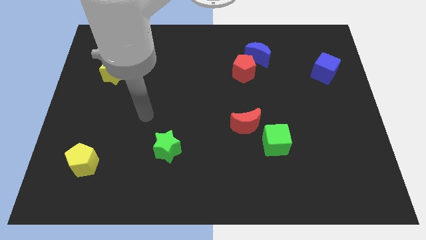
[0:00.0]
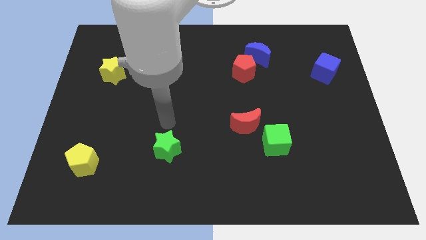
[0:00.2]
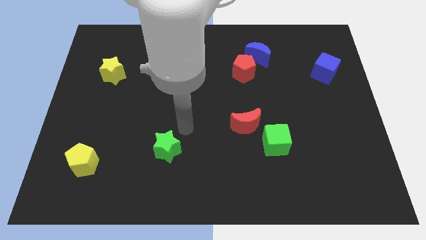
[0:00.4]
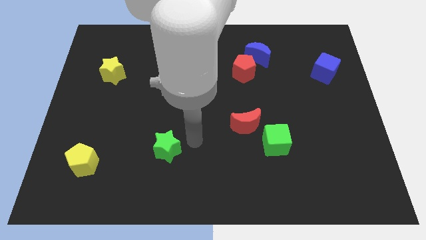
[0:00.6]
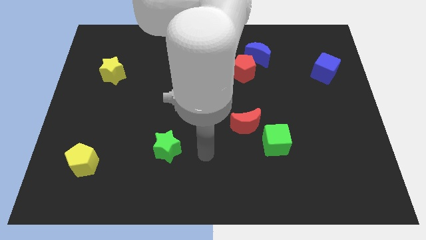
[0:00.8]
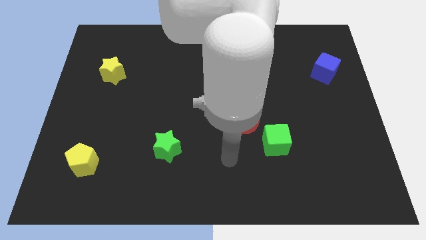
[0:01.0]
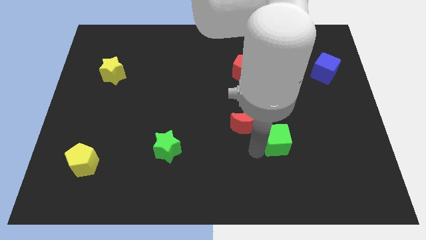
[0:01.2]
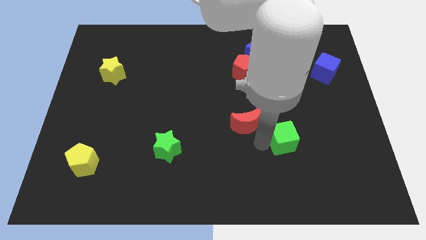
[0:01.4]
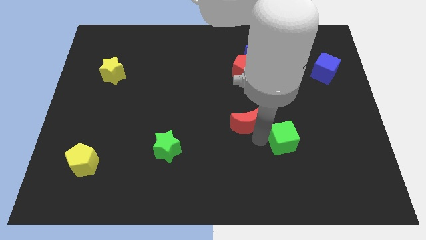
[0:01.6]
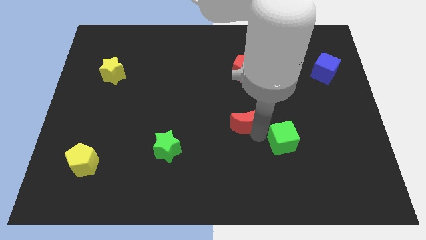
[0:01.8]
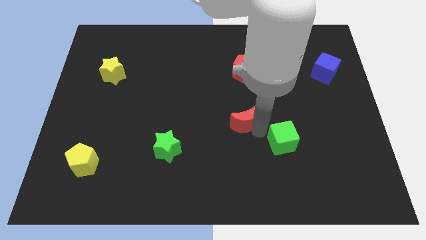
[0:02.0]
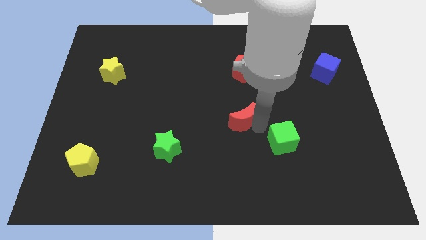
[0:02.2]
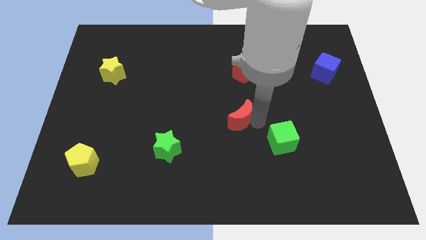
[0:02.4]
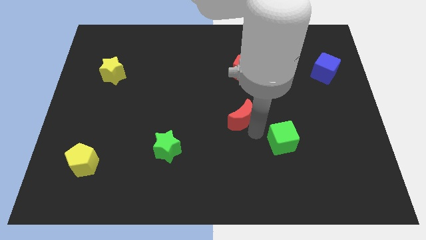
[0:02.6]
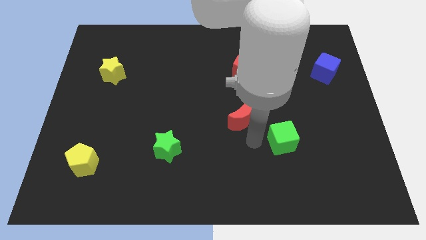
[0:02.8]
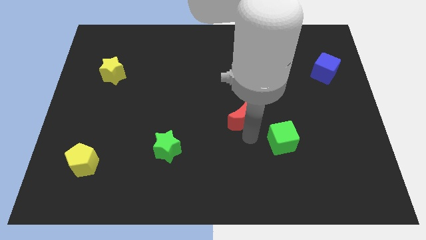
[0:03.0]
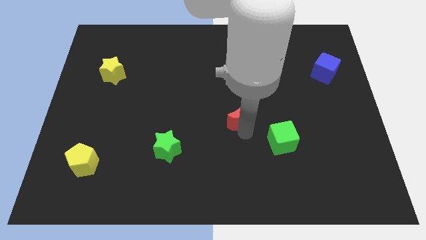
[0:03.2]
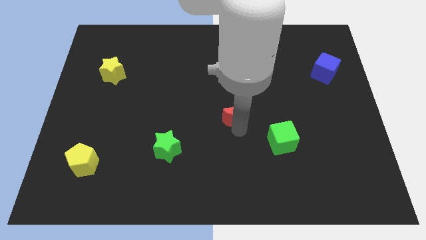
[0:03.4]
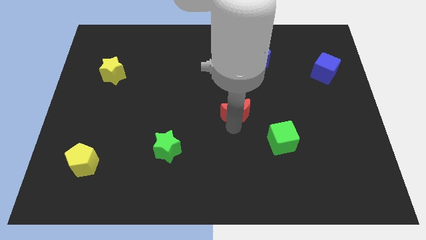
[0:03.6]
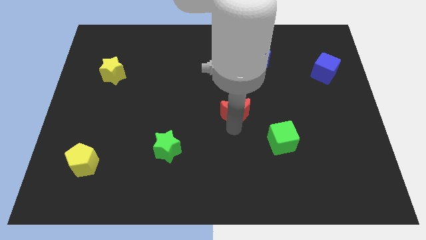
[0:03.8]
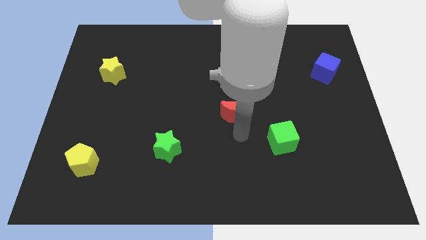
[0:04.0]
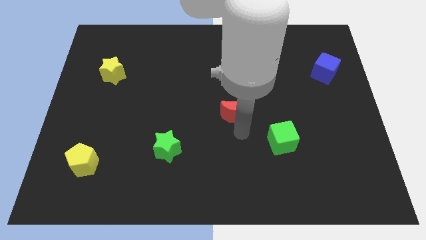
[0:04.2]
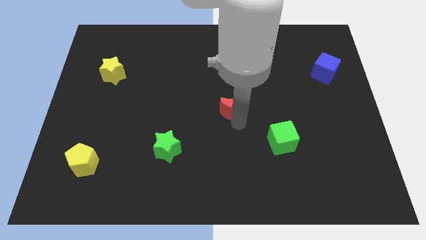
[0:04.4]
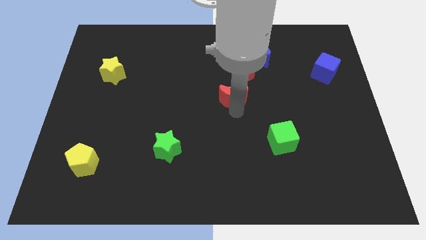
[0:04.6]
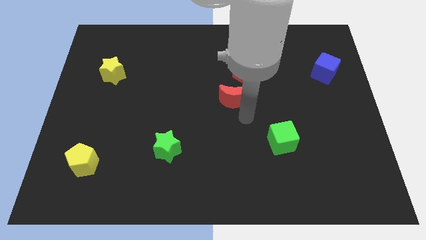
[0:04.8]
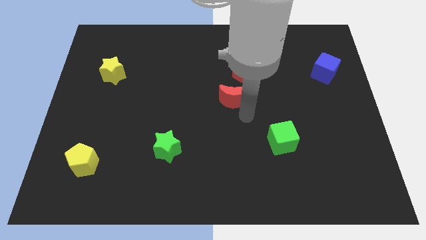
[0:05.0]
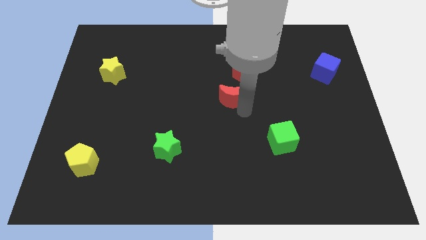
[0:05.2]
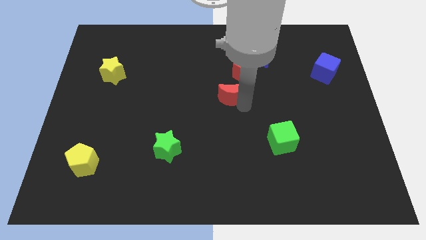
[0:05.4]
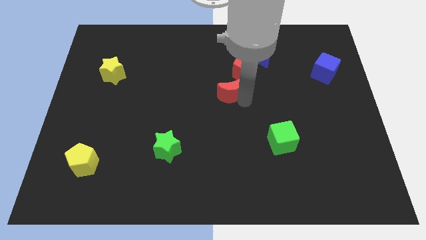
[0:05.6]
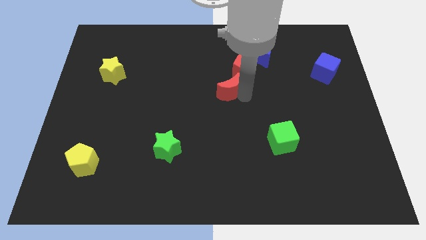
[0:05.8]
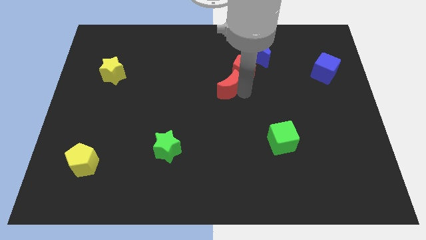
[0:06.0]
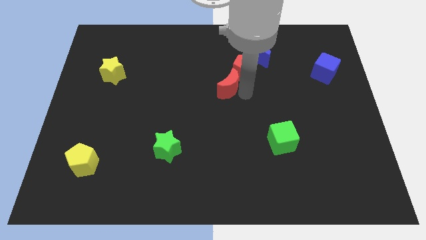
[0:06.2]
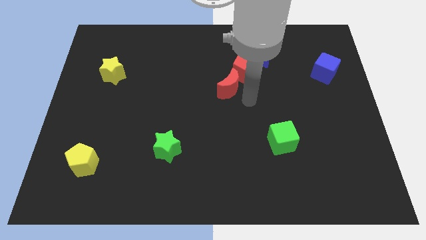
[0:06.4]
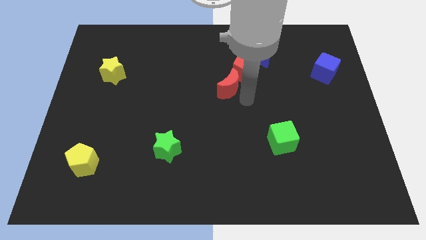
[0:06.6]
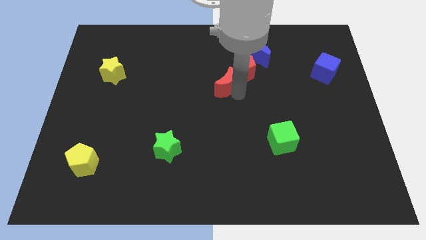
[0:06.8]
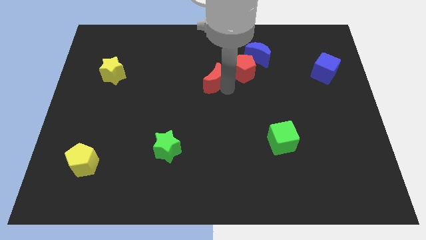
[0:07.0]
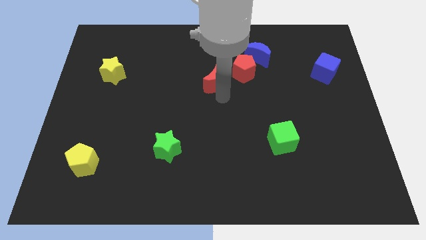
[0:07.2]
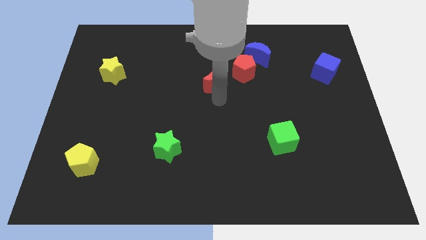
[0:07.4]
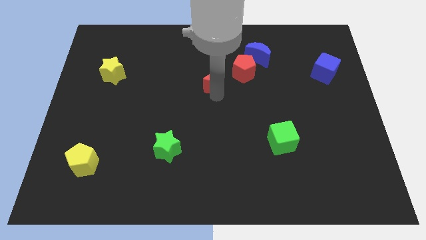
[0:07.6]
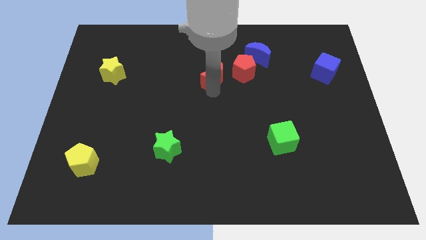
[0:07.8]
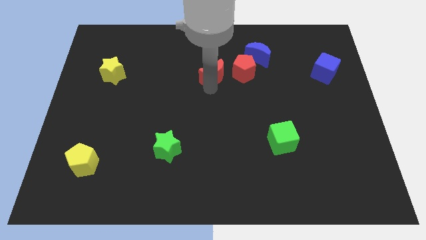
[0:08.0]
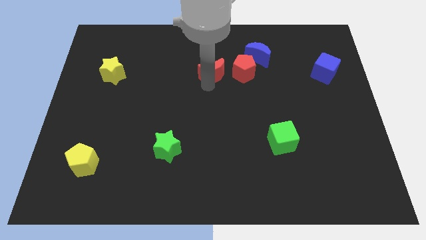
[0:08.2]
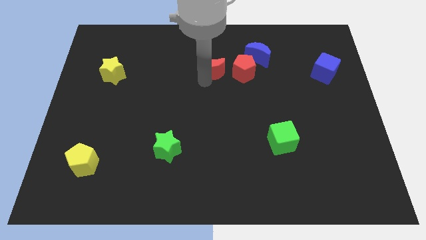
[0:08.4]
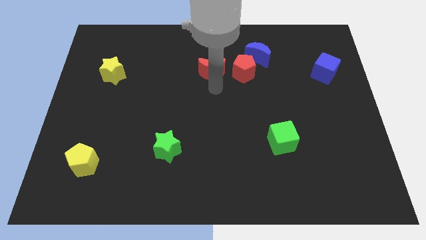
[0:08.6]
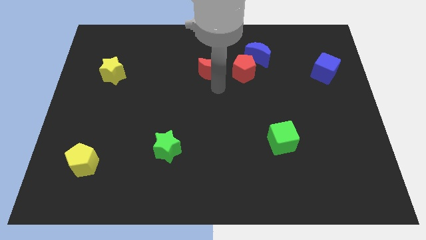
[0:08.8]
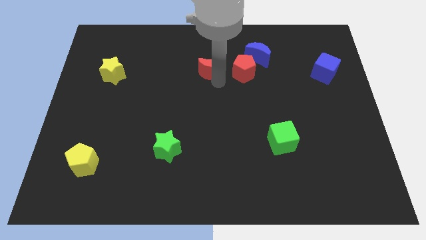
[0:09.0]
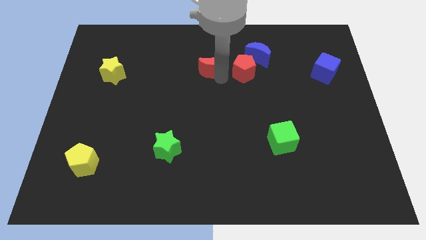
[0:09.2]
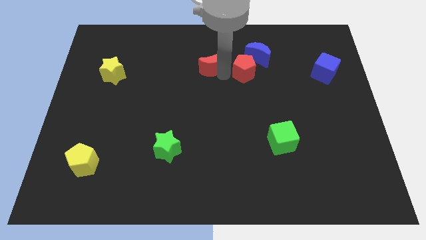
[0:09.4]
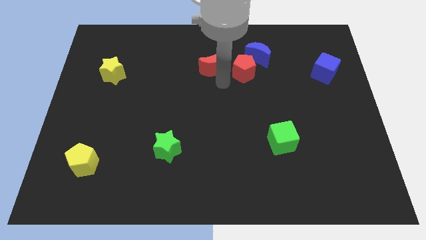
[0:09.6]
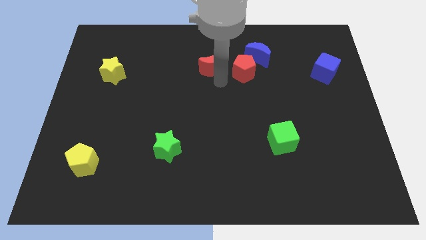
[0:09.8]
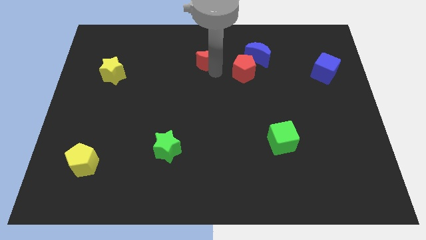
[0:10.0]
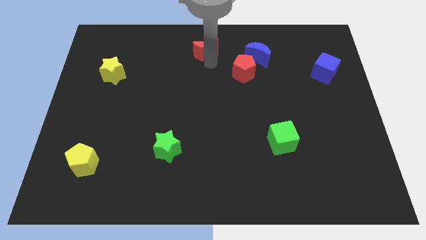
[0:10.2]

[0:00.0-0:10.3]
put the red moon to the top

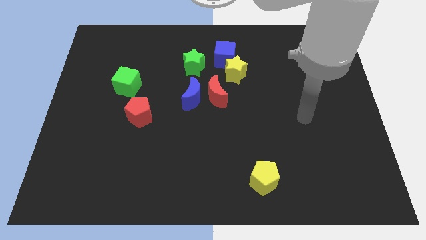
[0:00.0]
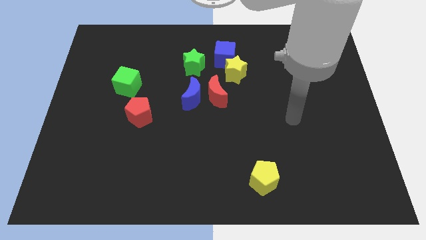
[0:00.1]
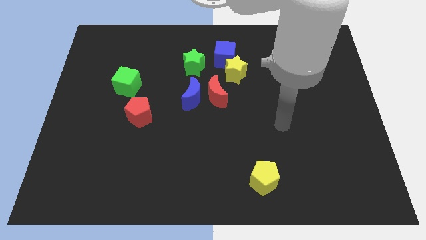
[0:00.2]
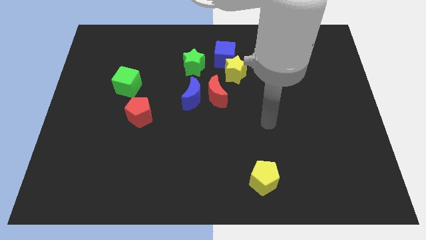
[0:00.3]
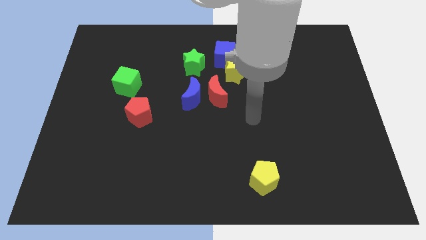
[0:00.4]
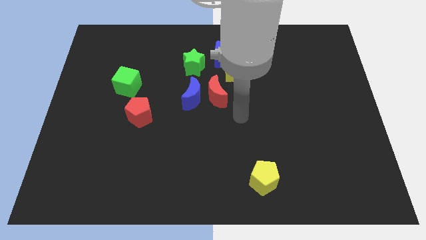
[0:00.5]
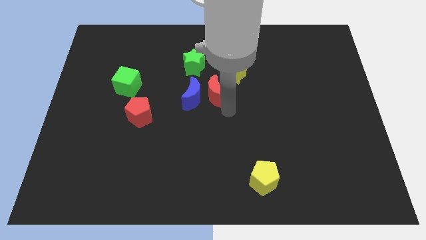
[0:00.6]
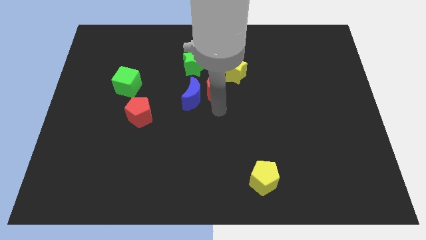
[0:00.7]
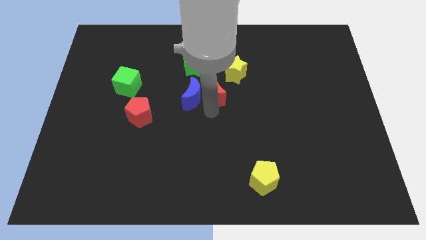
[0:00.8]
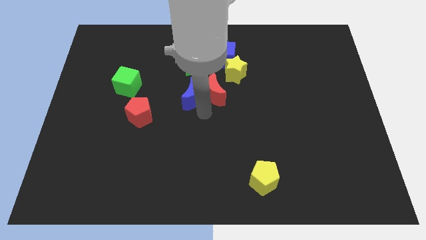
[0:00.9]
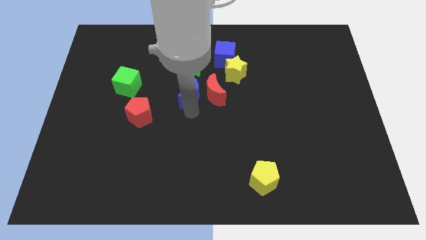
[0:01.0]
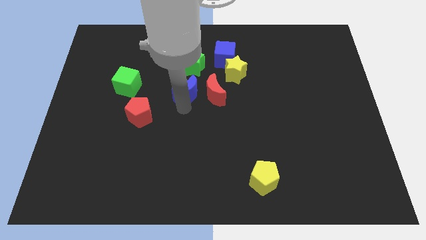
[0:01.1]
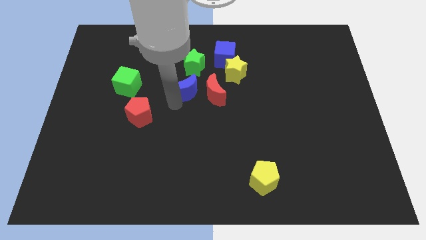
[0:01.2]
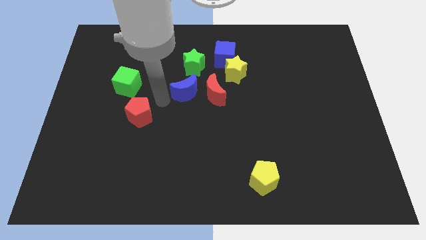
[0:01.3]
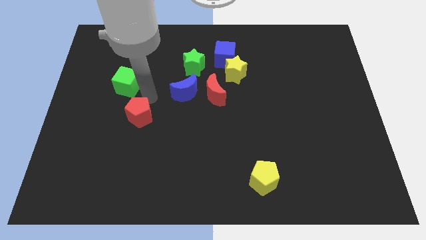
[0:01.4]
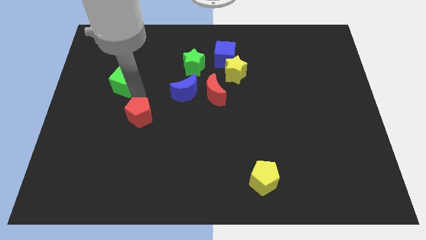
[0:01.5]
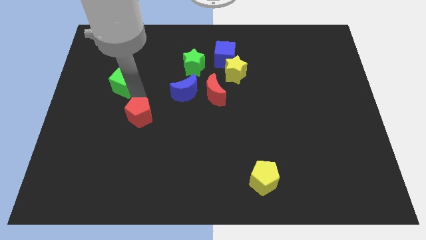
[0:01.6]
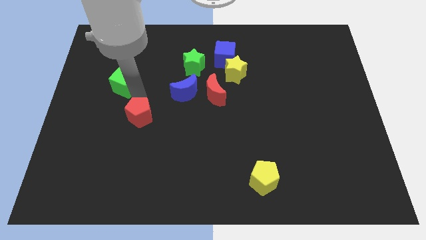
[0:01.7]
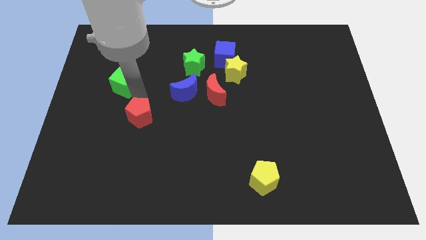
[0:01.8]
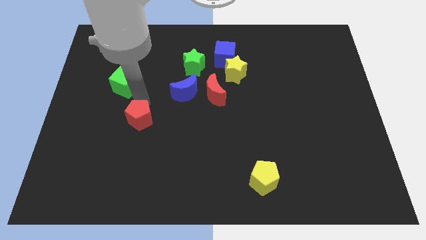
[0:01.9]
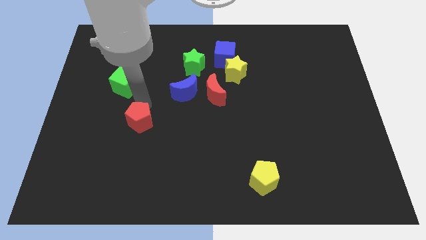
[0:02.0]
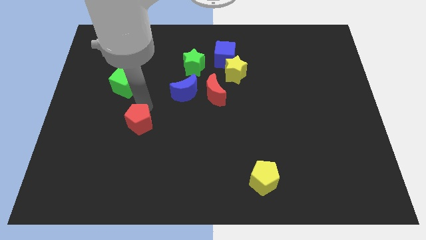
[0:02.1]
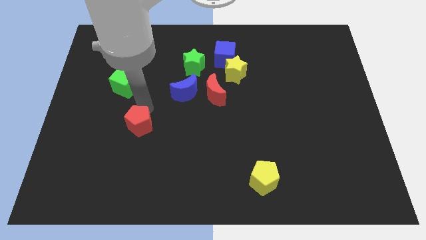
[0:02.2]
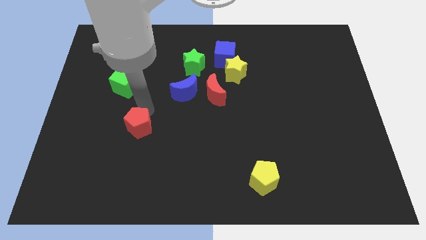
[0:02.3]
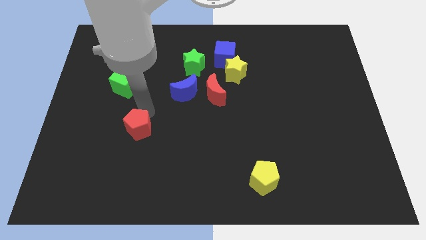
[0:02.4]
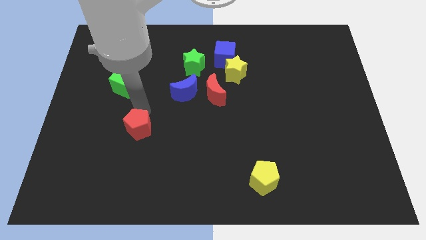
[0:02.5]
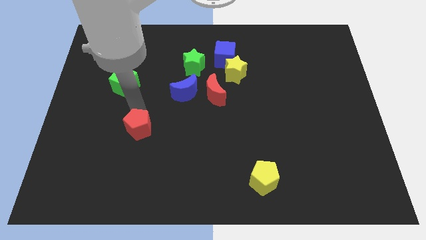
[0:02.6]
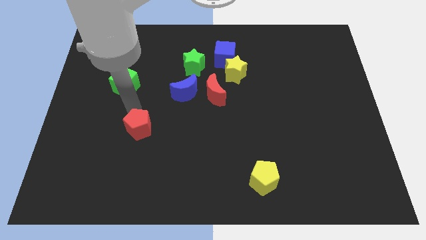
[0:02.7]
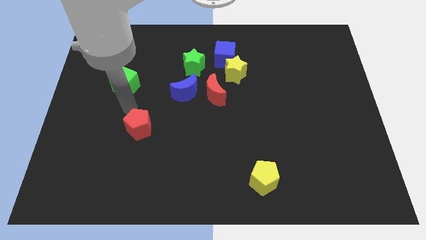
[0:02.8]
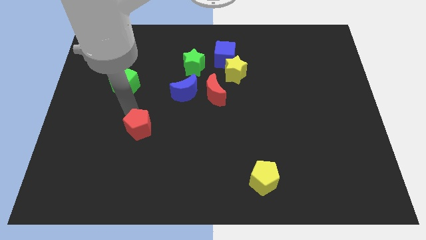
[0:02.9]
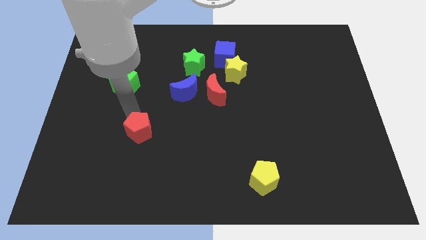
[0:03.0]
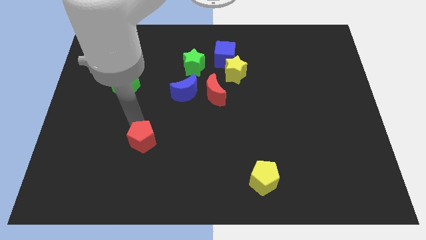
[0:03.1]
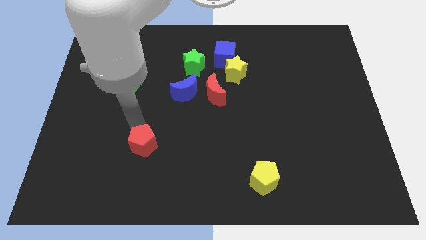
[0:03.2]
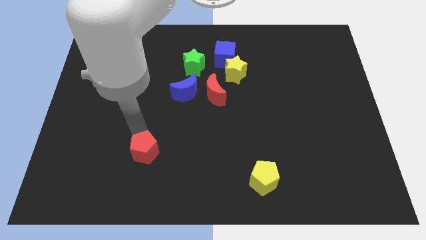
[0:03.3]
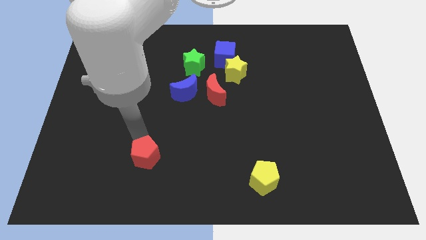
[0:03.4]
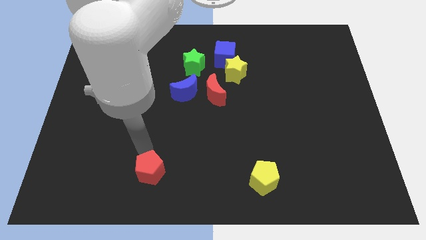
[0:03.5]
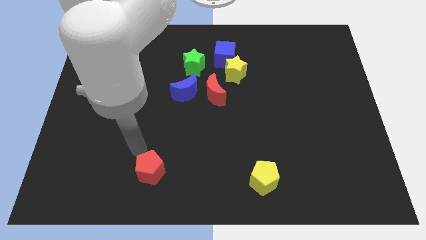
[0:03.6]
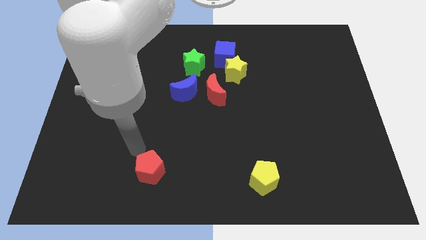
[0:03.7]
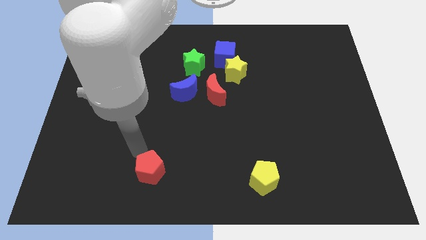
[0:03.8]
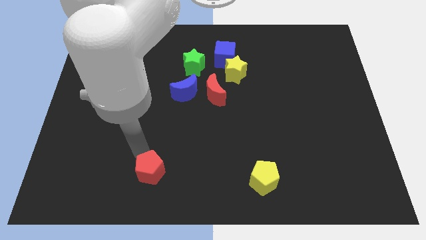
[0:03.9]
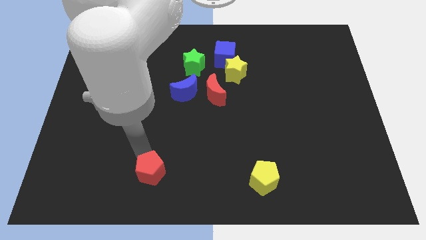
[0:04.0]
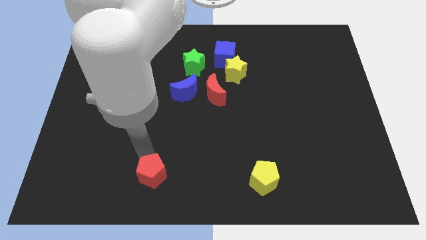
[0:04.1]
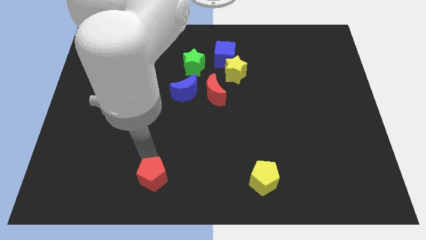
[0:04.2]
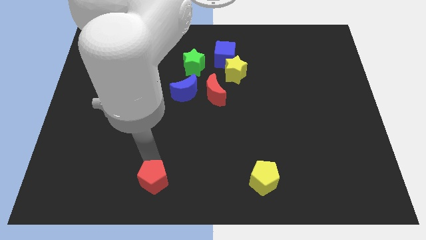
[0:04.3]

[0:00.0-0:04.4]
move the red pentagon to the bottom
